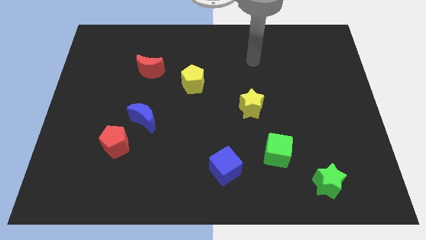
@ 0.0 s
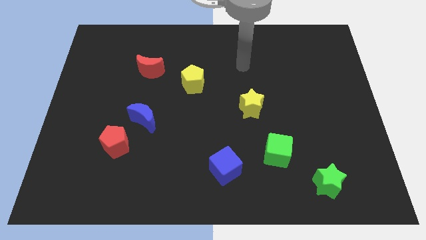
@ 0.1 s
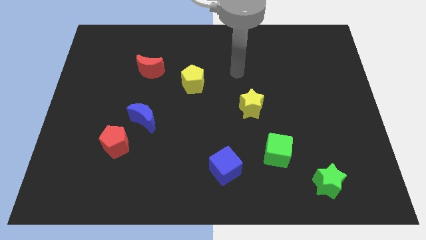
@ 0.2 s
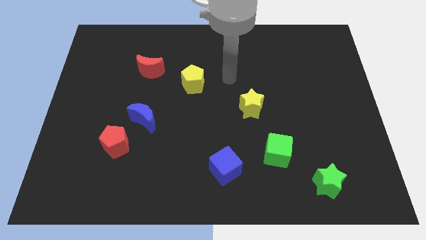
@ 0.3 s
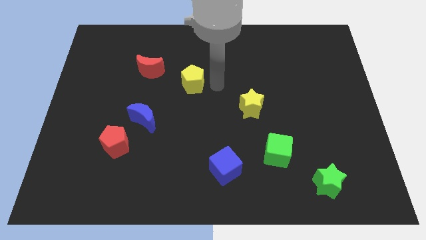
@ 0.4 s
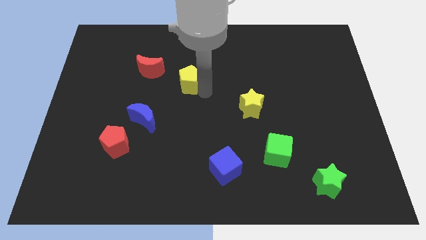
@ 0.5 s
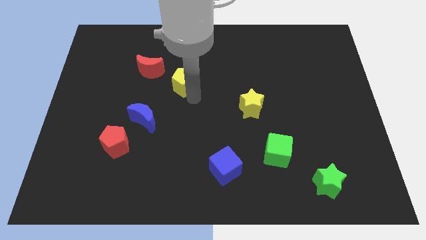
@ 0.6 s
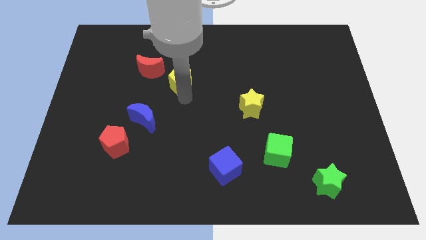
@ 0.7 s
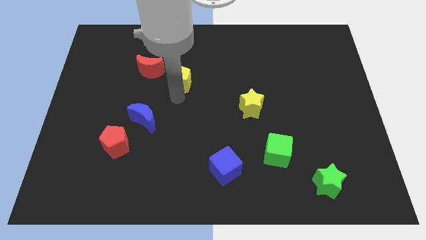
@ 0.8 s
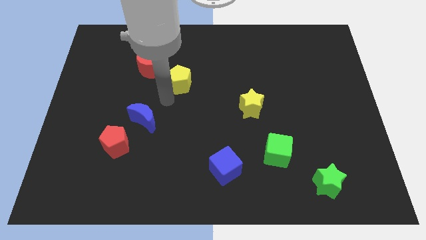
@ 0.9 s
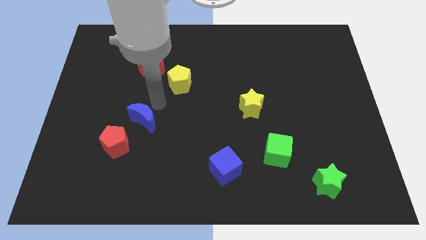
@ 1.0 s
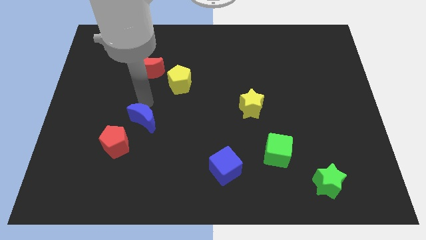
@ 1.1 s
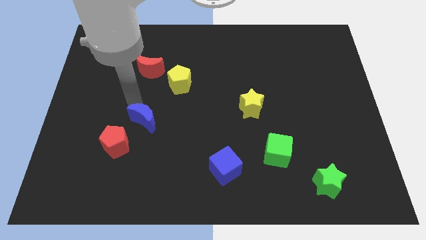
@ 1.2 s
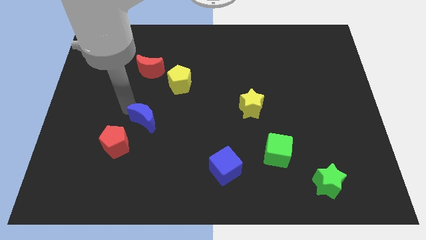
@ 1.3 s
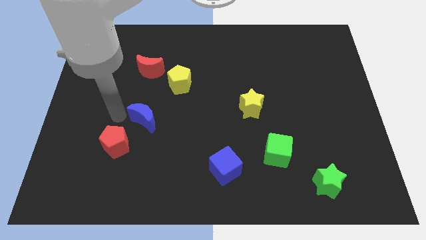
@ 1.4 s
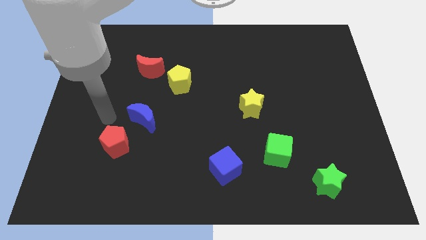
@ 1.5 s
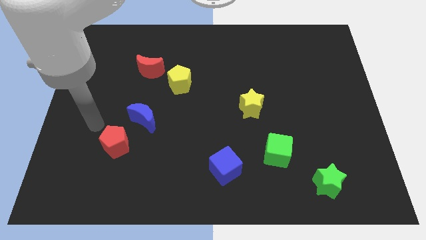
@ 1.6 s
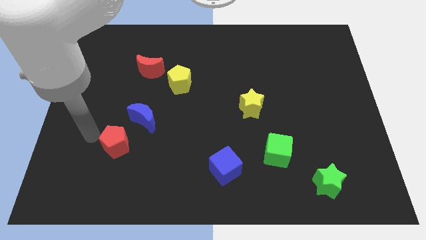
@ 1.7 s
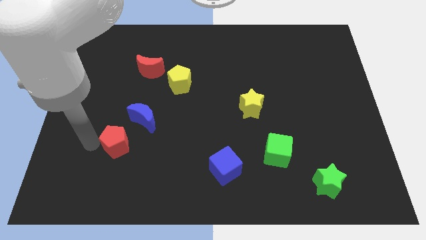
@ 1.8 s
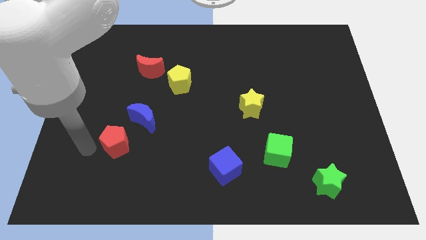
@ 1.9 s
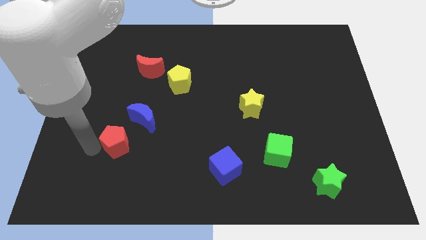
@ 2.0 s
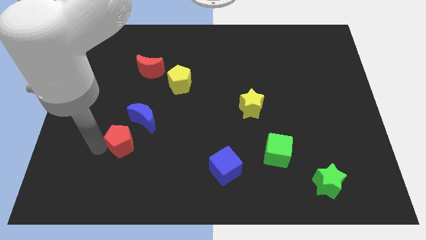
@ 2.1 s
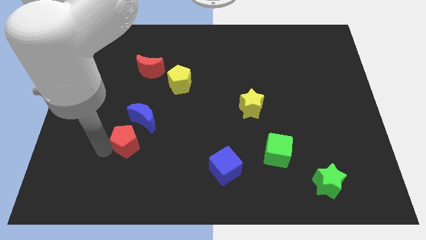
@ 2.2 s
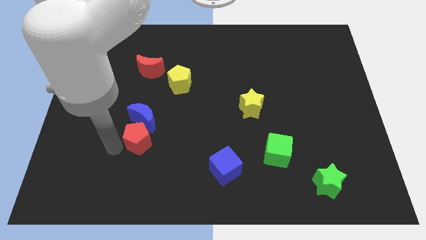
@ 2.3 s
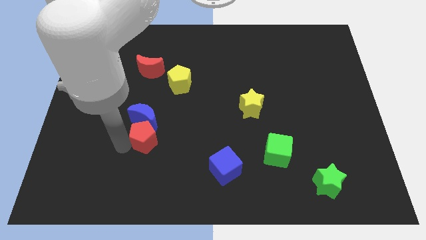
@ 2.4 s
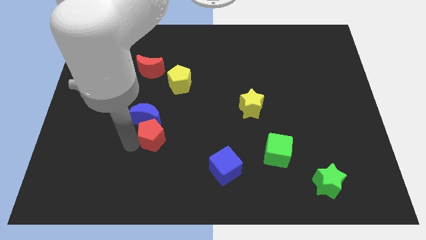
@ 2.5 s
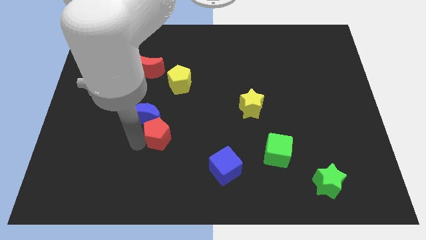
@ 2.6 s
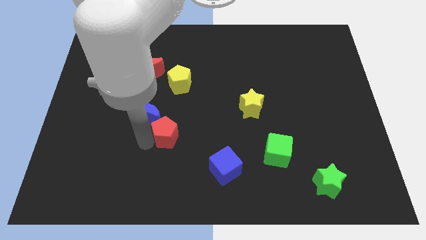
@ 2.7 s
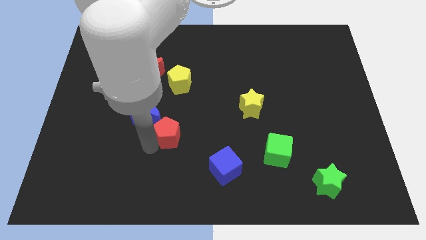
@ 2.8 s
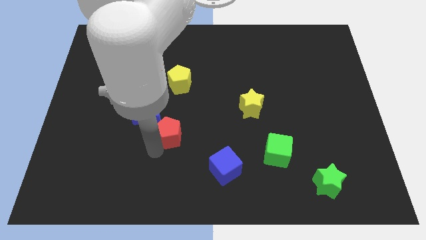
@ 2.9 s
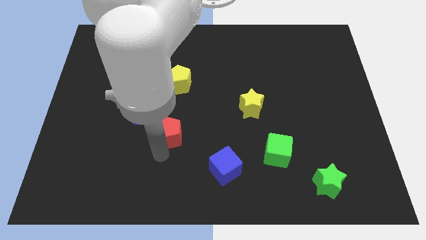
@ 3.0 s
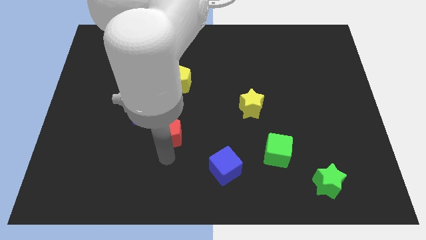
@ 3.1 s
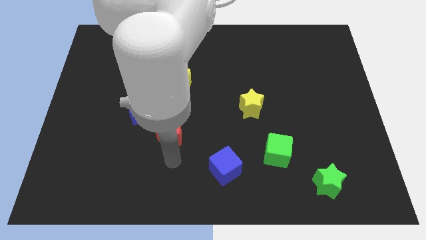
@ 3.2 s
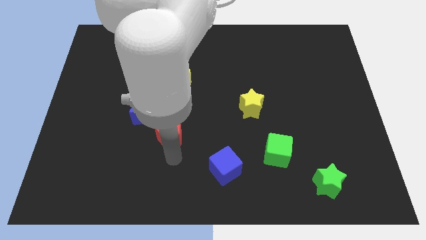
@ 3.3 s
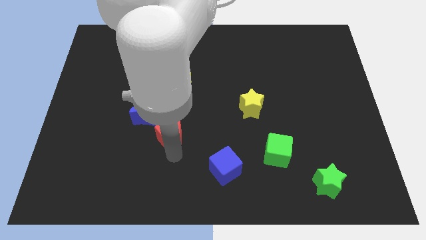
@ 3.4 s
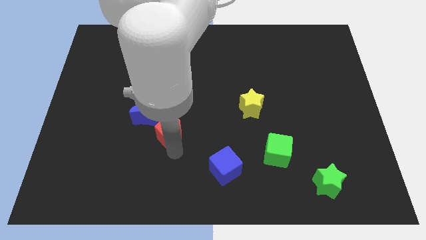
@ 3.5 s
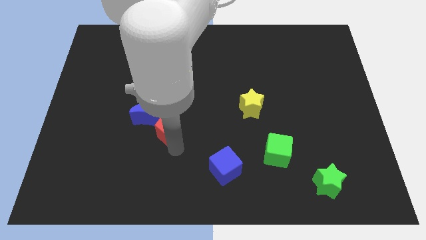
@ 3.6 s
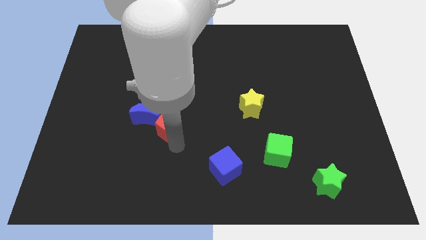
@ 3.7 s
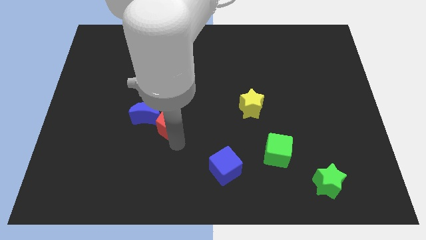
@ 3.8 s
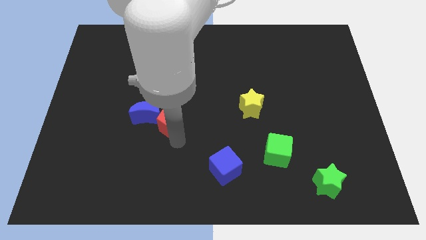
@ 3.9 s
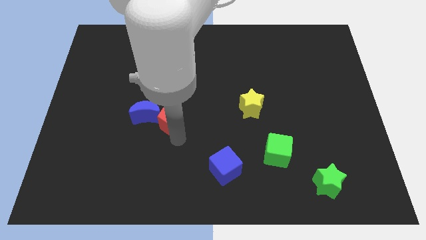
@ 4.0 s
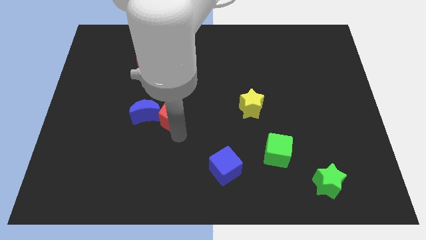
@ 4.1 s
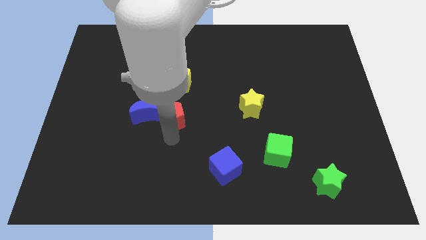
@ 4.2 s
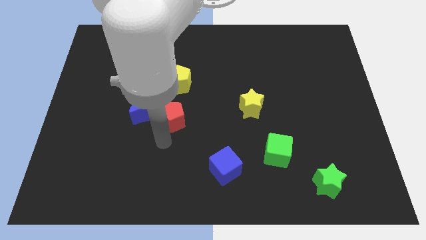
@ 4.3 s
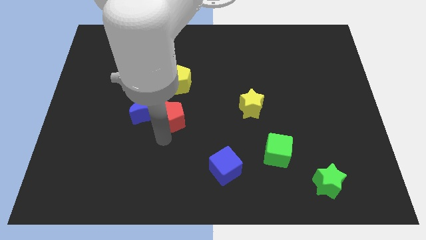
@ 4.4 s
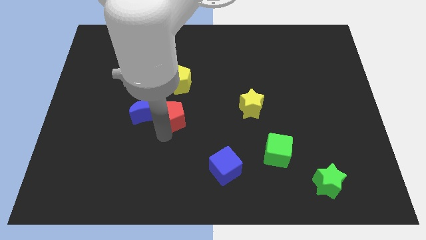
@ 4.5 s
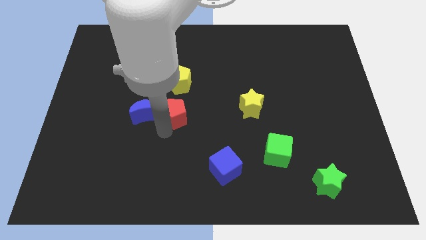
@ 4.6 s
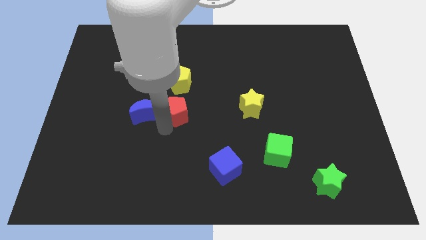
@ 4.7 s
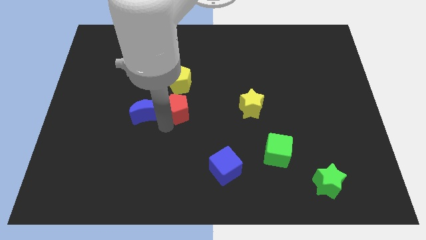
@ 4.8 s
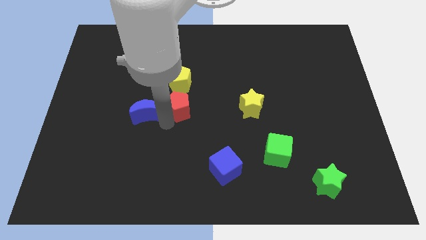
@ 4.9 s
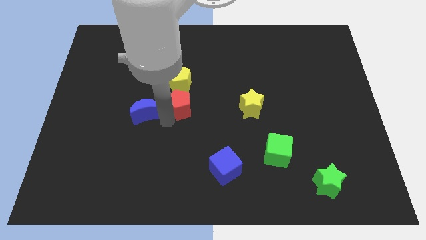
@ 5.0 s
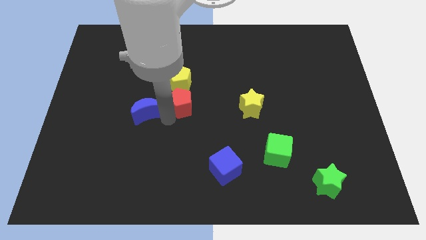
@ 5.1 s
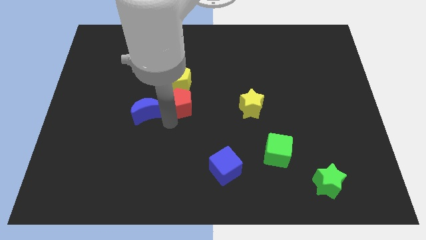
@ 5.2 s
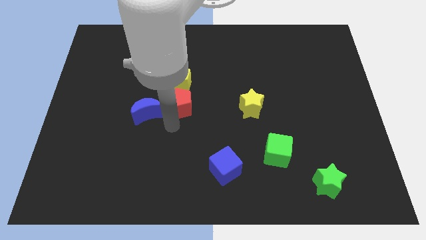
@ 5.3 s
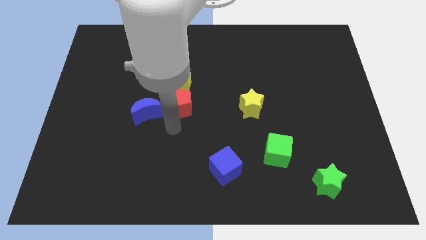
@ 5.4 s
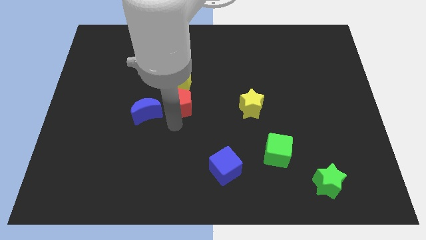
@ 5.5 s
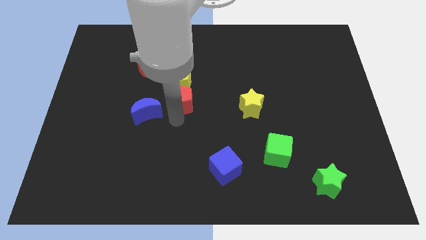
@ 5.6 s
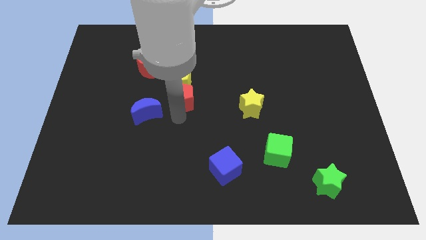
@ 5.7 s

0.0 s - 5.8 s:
push the red pentagon towards the yellow pentagon
